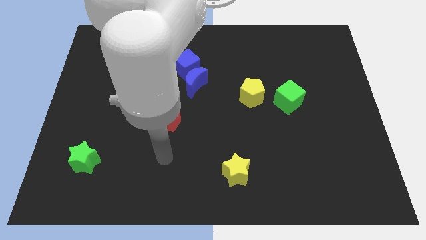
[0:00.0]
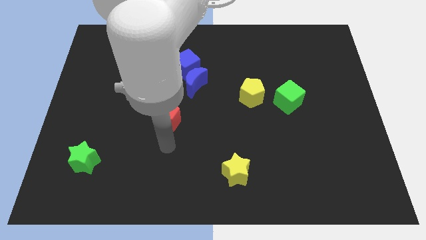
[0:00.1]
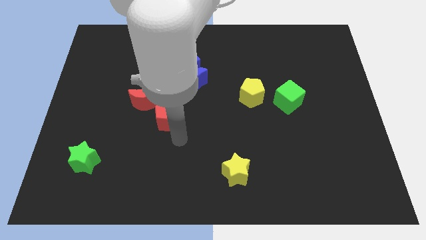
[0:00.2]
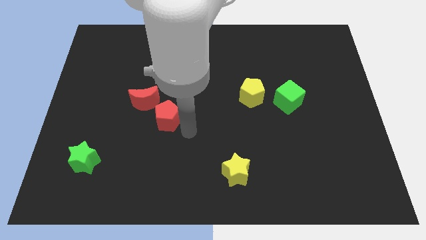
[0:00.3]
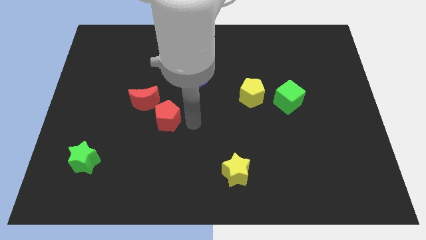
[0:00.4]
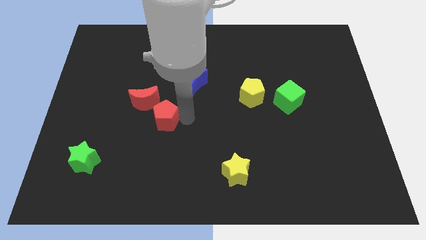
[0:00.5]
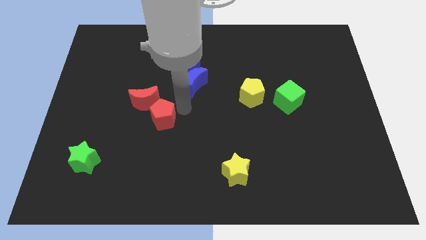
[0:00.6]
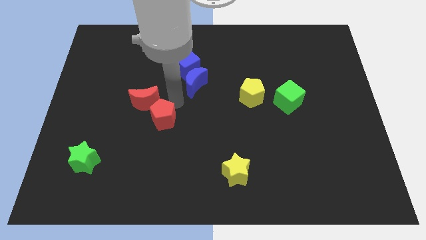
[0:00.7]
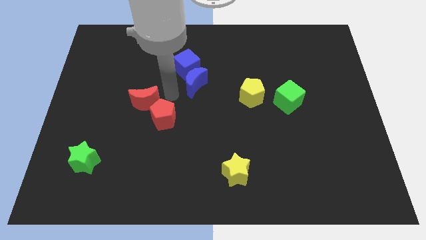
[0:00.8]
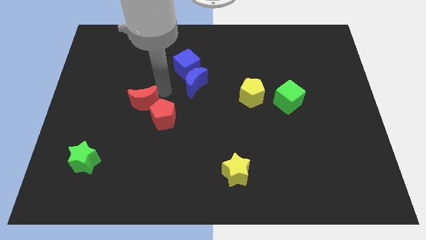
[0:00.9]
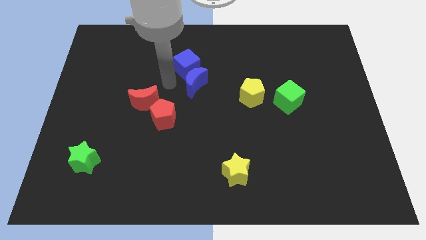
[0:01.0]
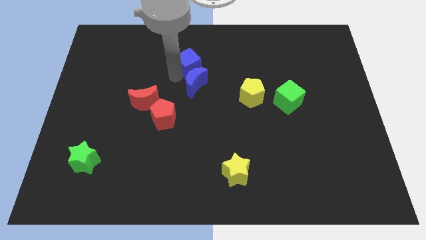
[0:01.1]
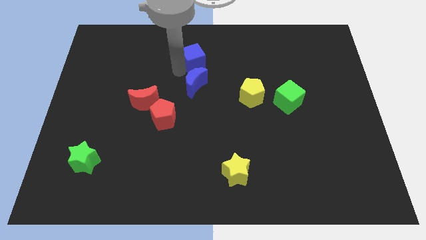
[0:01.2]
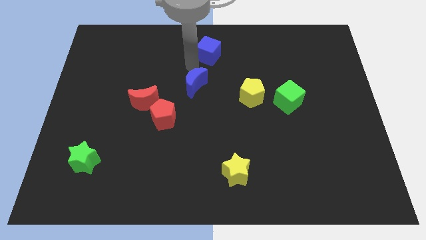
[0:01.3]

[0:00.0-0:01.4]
move the blue moon away from the blue cube

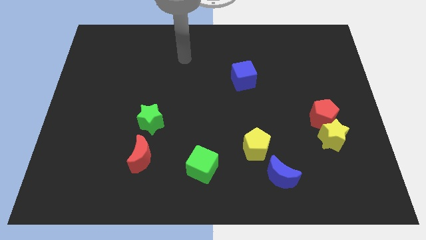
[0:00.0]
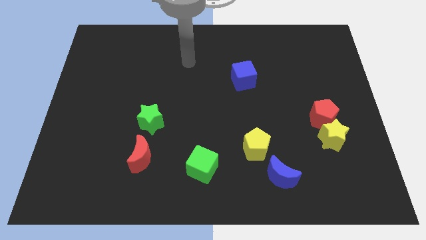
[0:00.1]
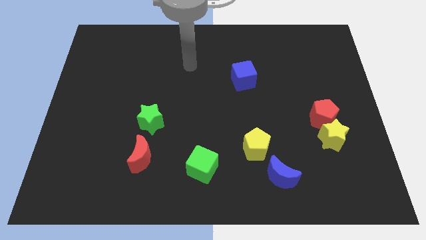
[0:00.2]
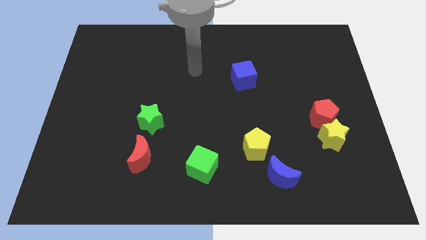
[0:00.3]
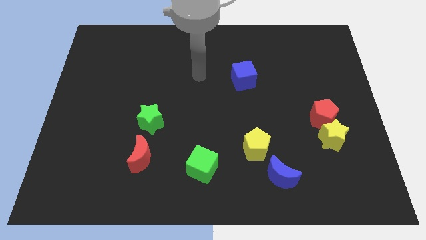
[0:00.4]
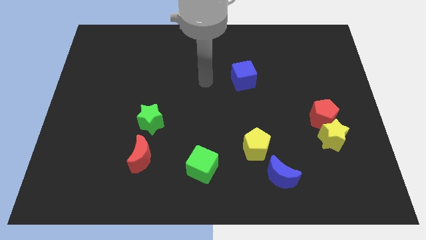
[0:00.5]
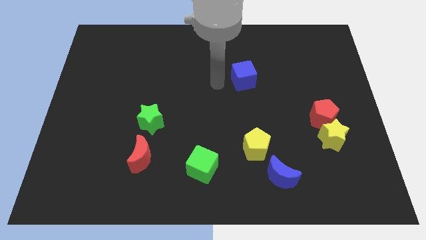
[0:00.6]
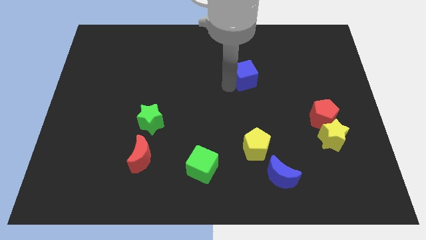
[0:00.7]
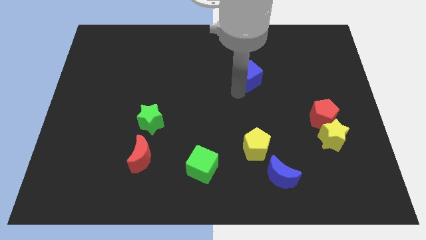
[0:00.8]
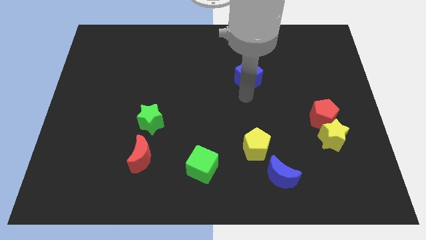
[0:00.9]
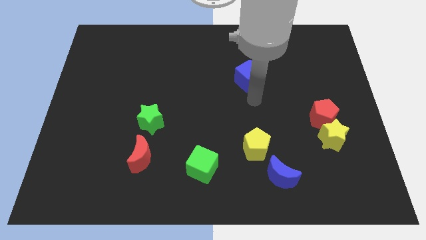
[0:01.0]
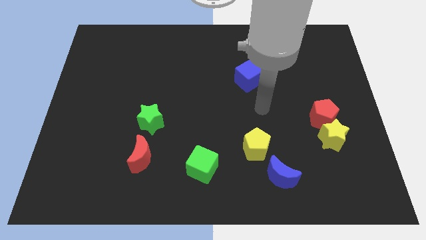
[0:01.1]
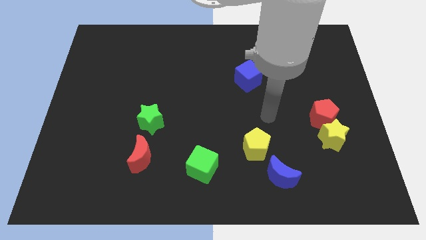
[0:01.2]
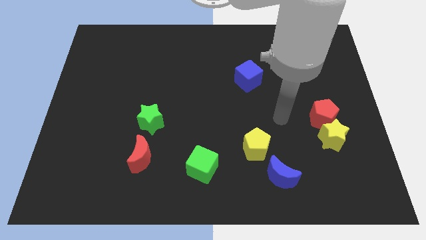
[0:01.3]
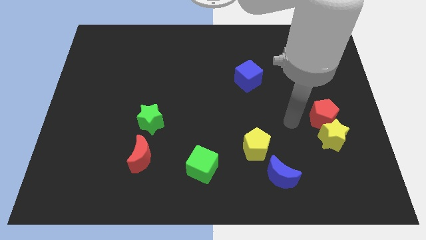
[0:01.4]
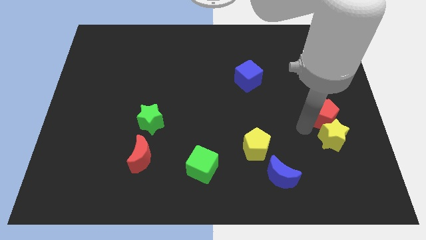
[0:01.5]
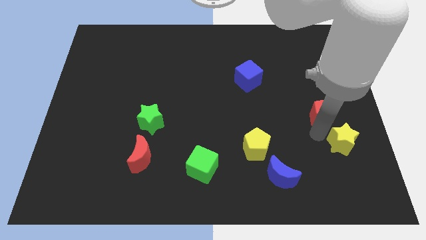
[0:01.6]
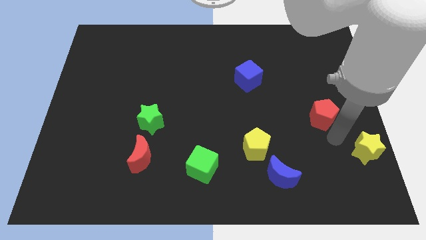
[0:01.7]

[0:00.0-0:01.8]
pull the red pentagon apart from the yellow star

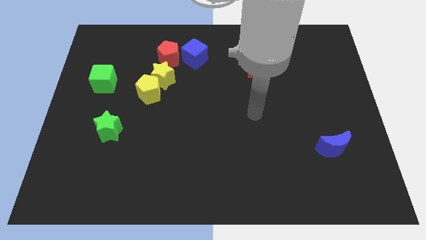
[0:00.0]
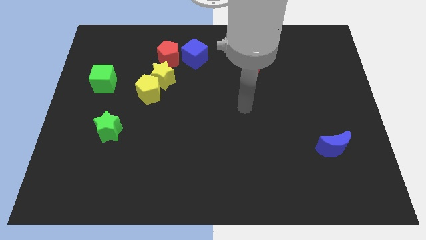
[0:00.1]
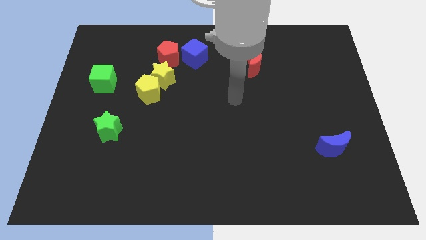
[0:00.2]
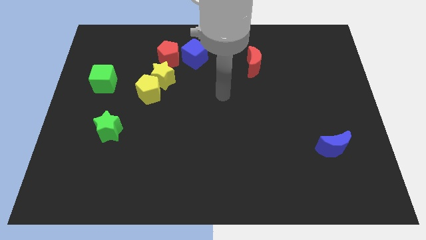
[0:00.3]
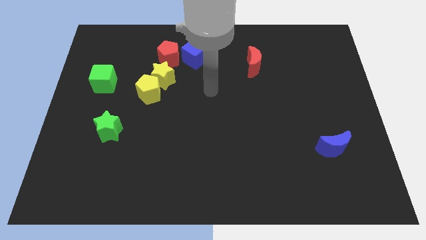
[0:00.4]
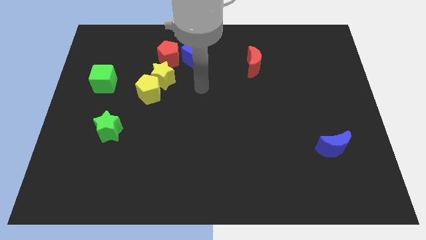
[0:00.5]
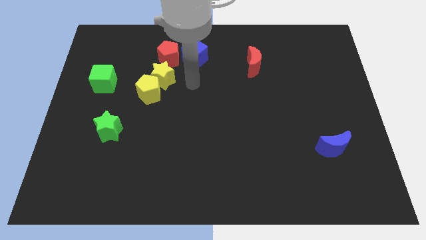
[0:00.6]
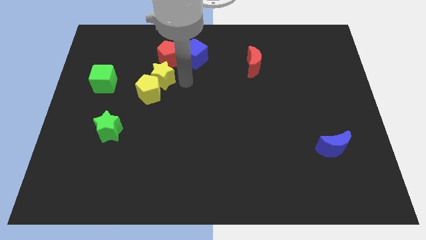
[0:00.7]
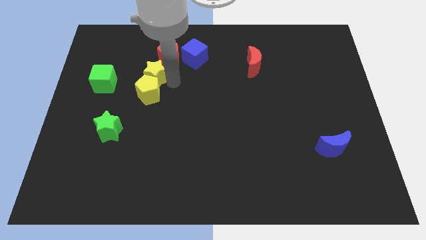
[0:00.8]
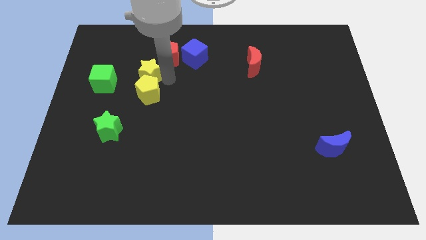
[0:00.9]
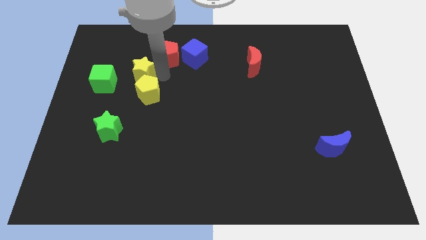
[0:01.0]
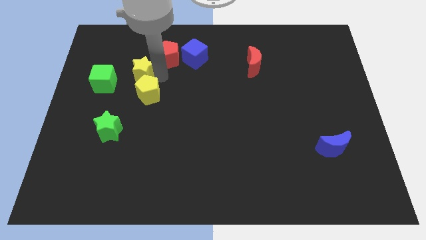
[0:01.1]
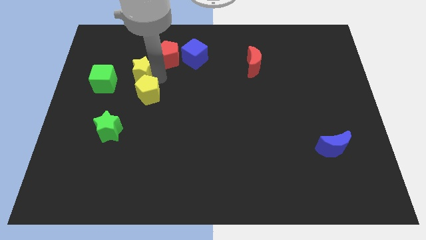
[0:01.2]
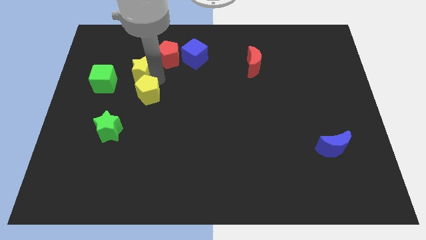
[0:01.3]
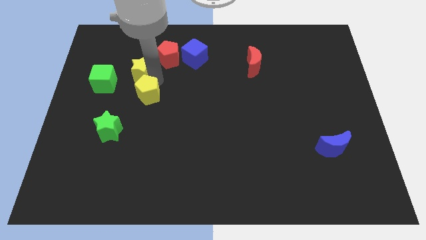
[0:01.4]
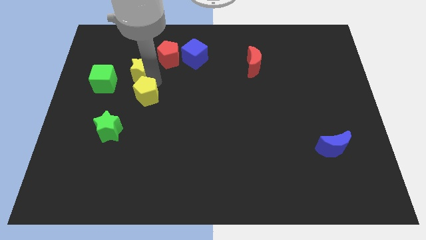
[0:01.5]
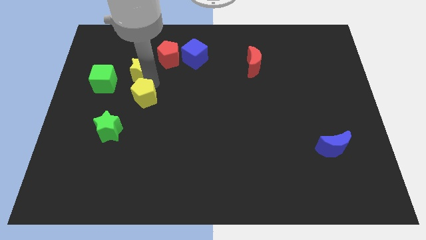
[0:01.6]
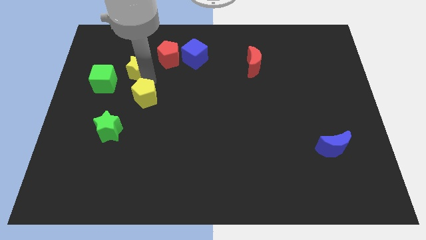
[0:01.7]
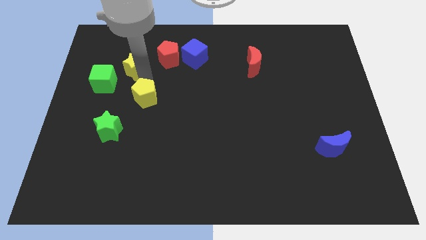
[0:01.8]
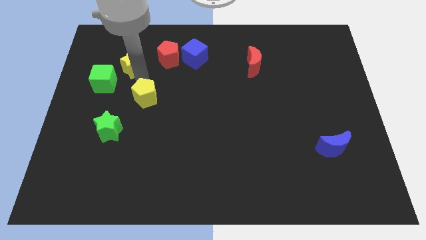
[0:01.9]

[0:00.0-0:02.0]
separate the yellow pentagon from the yellow star

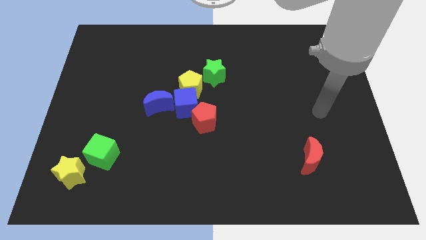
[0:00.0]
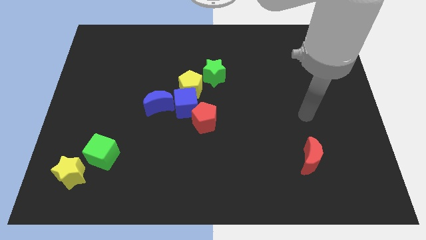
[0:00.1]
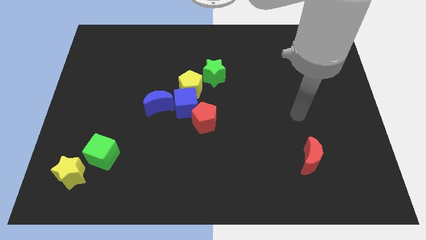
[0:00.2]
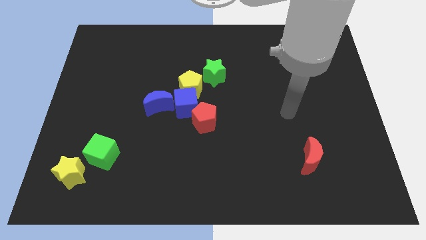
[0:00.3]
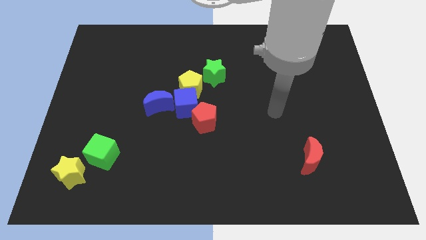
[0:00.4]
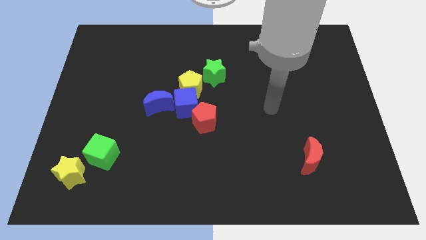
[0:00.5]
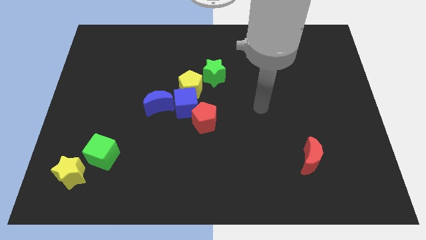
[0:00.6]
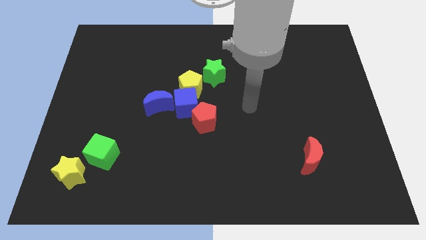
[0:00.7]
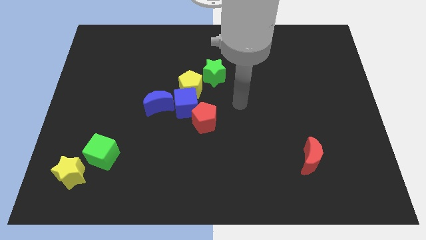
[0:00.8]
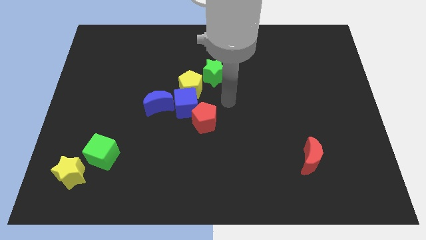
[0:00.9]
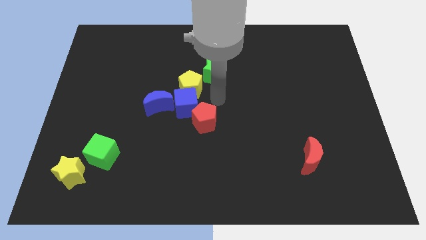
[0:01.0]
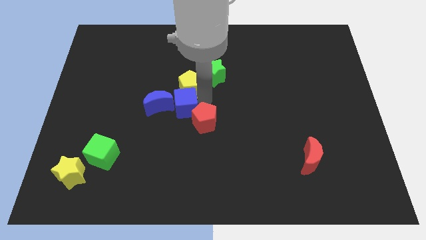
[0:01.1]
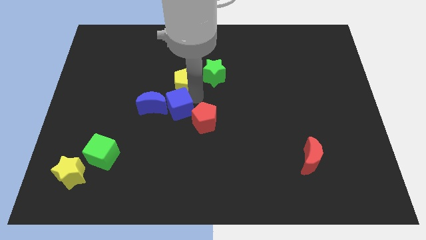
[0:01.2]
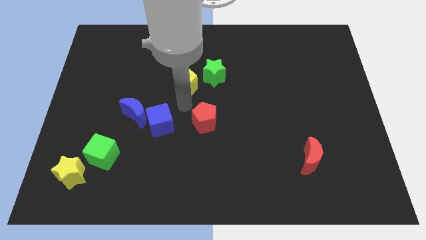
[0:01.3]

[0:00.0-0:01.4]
pull the red pentagon apart from the blue cube

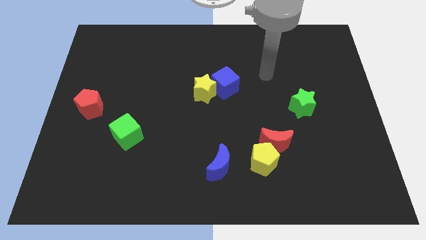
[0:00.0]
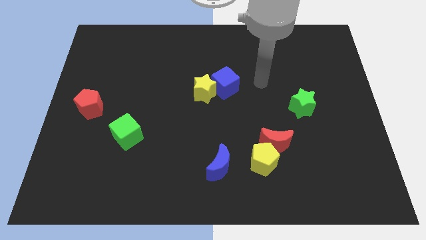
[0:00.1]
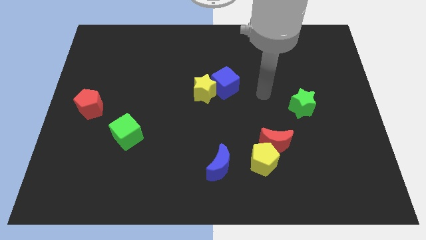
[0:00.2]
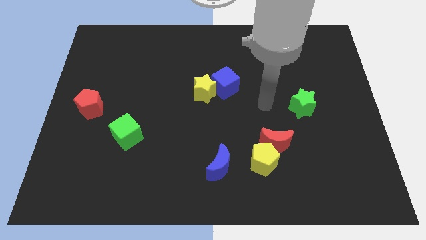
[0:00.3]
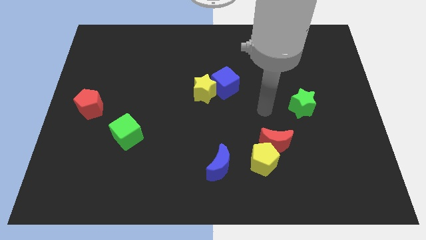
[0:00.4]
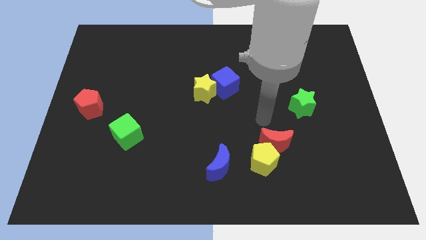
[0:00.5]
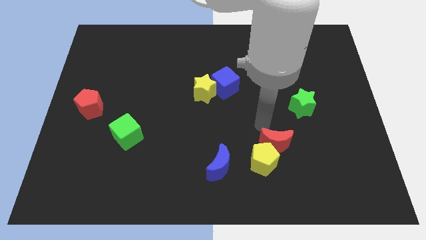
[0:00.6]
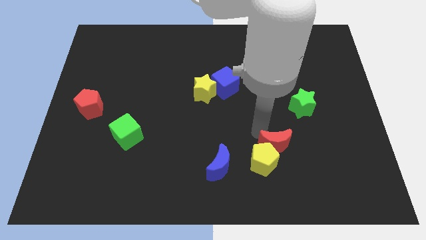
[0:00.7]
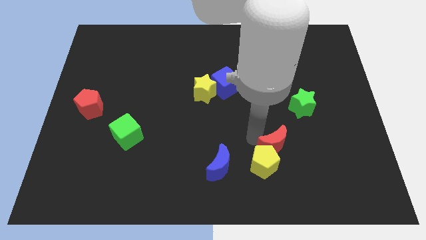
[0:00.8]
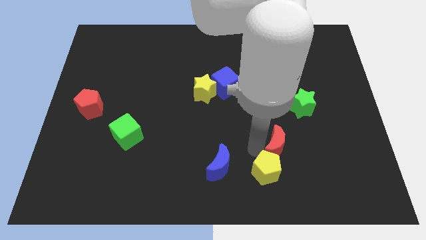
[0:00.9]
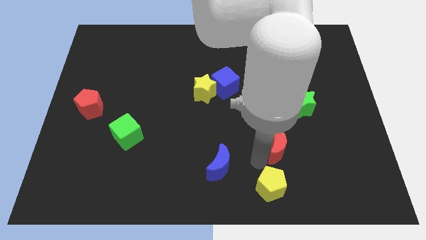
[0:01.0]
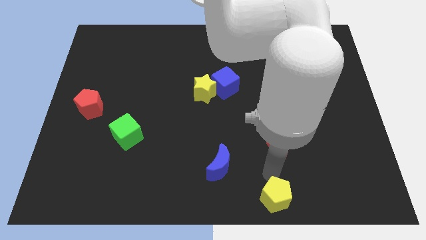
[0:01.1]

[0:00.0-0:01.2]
move the red moon away from the yellow pentagon

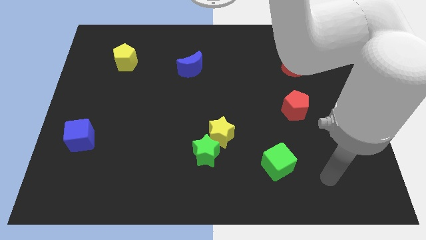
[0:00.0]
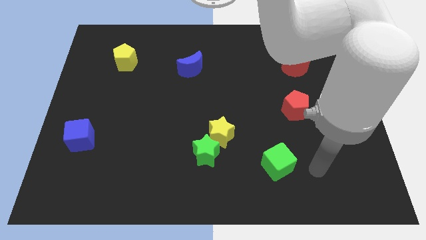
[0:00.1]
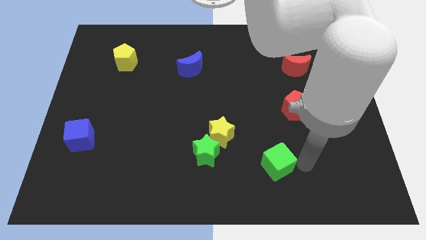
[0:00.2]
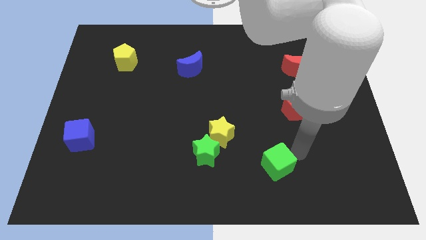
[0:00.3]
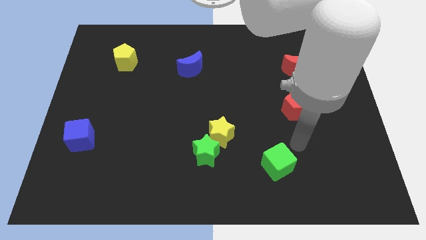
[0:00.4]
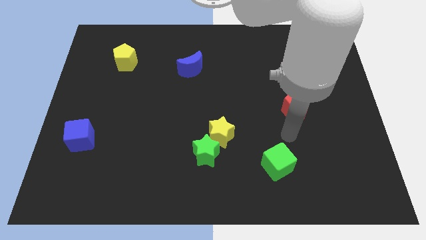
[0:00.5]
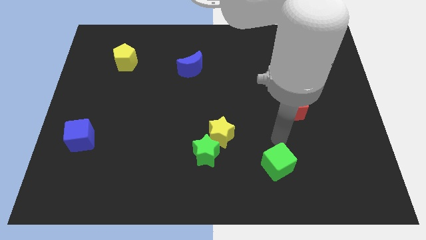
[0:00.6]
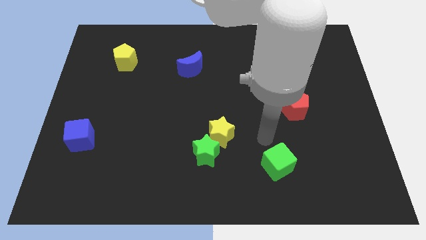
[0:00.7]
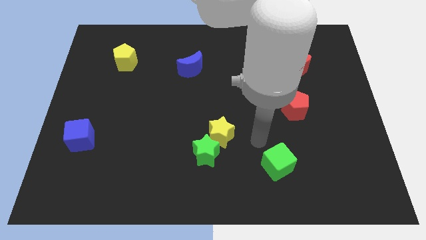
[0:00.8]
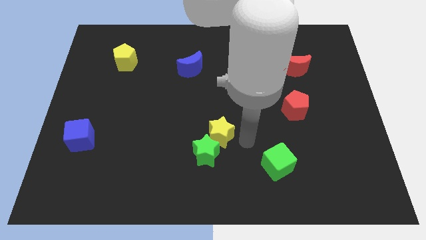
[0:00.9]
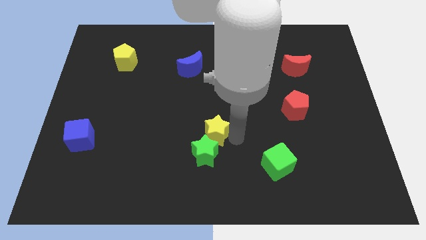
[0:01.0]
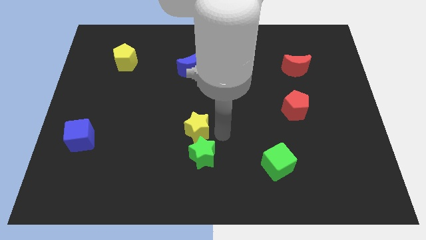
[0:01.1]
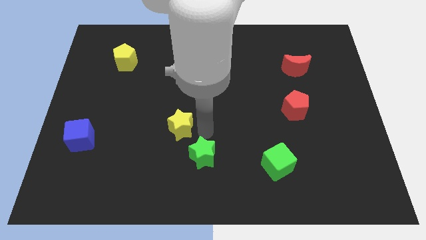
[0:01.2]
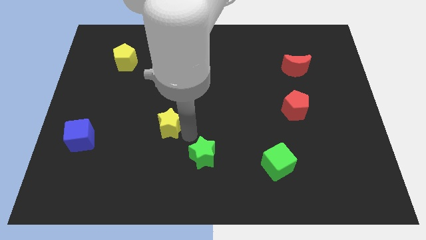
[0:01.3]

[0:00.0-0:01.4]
separate the green star from the yellow star

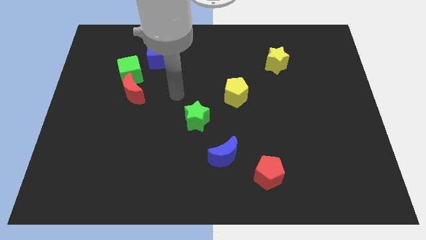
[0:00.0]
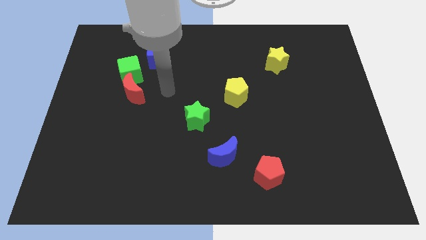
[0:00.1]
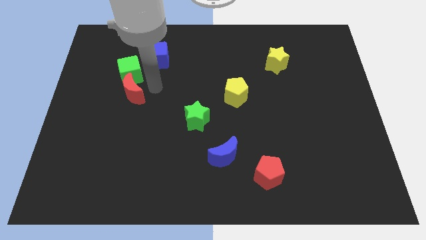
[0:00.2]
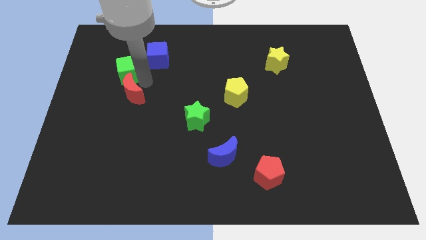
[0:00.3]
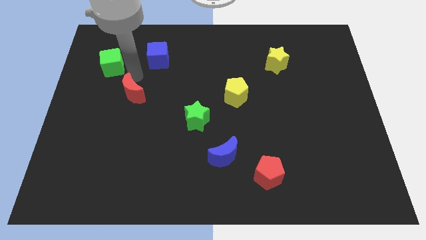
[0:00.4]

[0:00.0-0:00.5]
move the red moon away from the green cube
